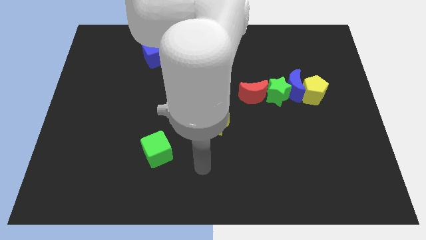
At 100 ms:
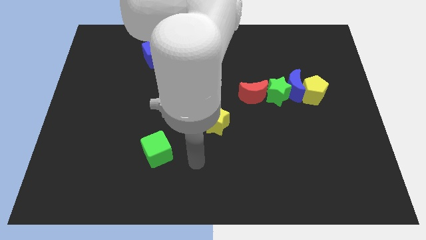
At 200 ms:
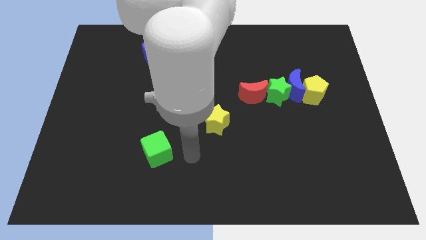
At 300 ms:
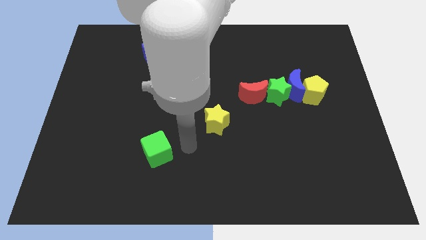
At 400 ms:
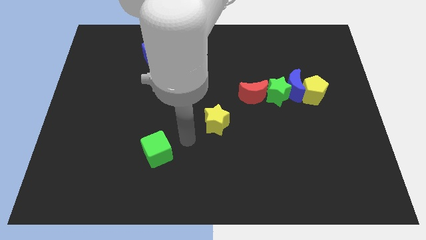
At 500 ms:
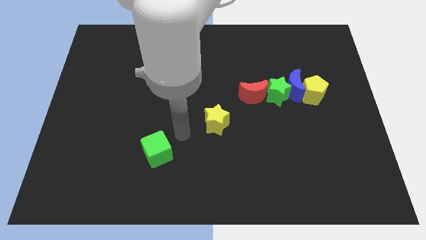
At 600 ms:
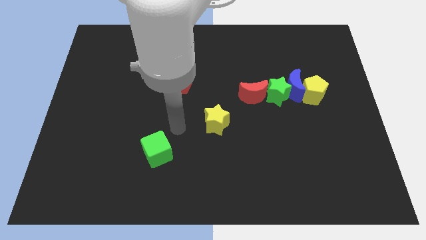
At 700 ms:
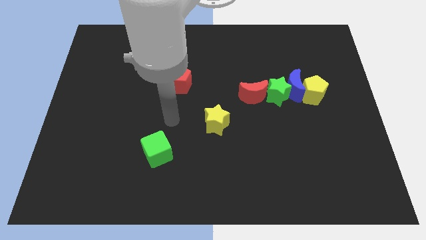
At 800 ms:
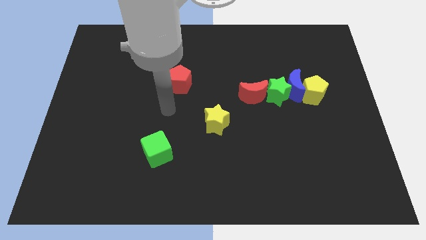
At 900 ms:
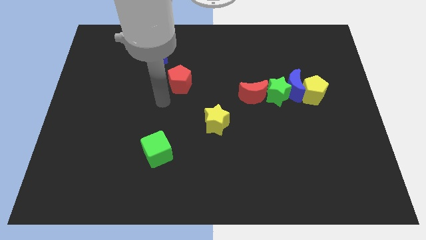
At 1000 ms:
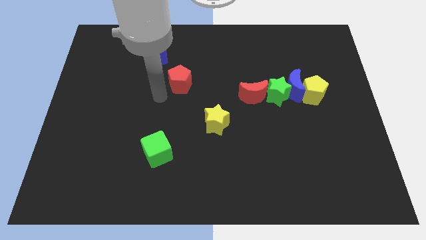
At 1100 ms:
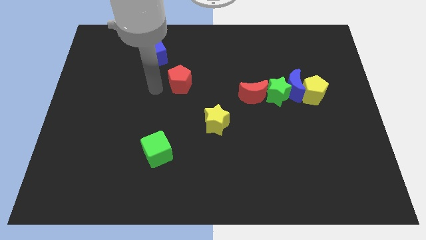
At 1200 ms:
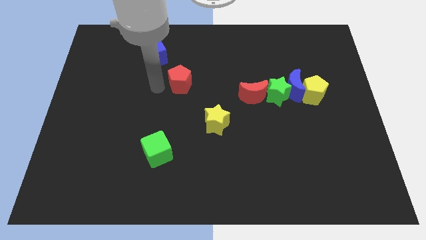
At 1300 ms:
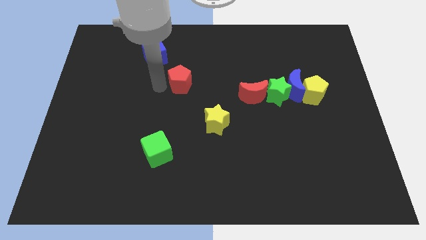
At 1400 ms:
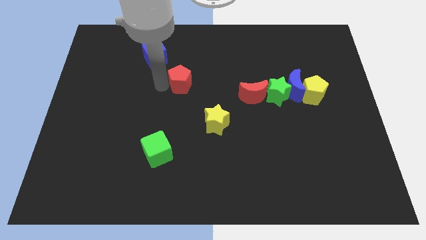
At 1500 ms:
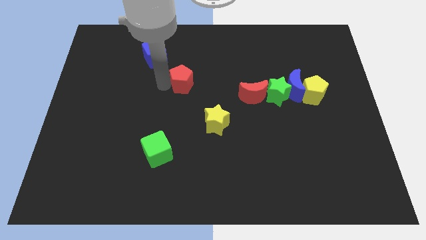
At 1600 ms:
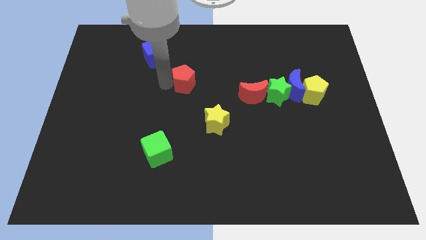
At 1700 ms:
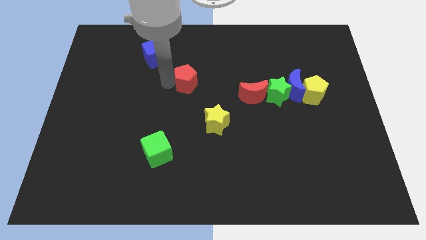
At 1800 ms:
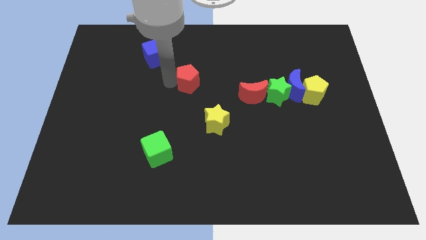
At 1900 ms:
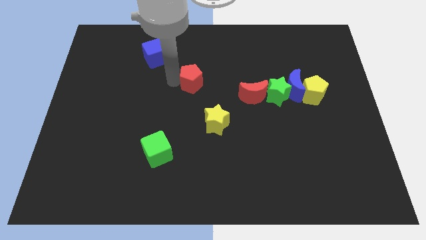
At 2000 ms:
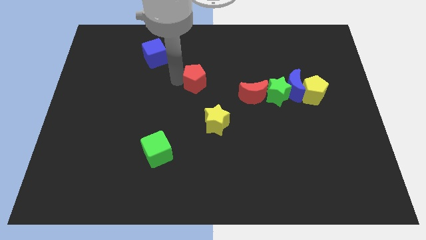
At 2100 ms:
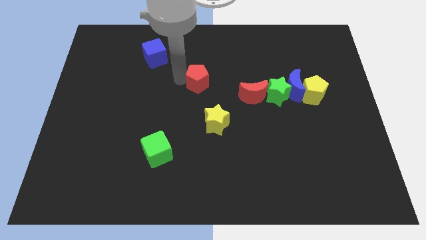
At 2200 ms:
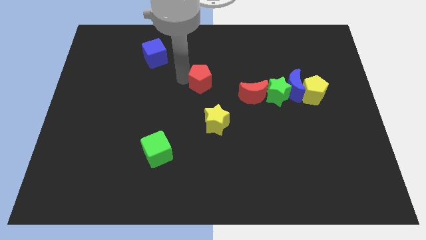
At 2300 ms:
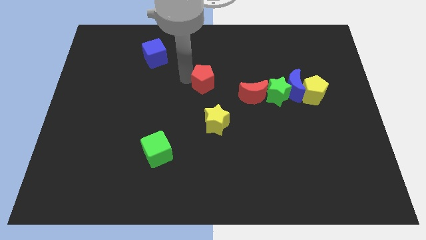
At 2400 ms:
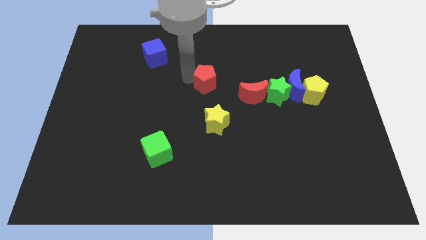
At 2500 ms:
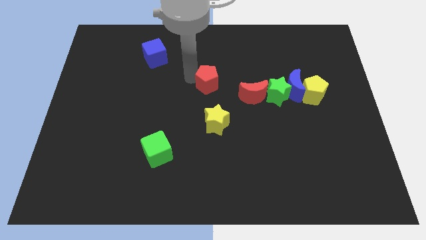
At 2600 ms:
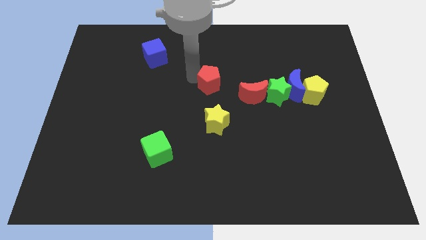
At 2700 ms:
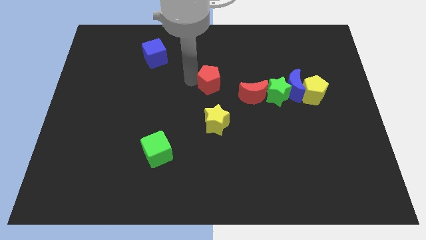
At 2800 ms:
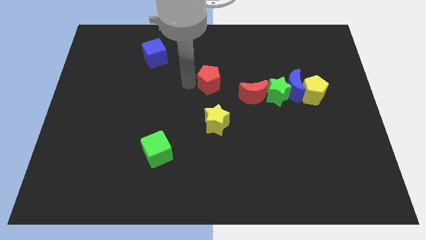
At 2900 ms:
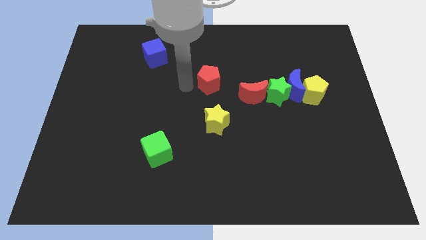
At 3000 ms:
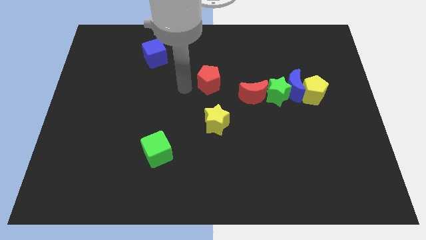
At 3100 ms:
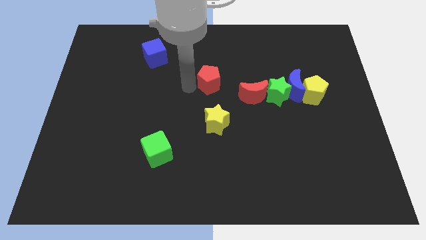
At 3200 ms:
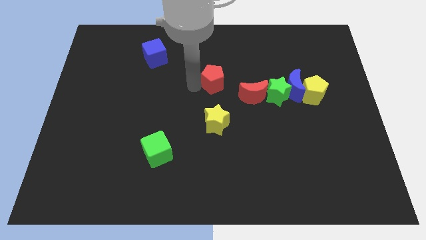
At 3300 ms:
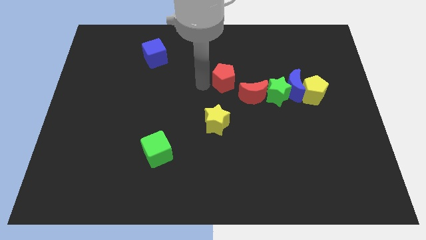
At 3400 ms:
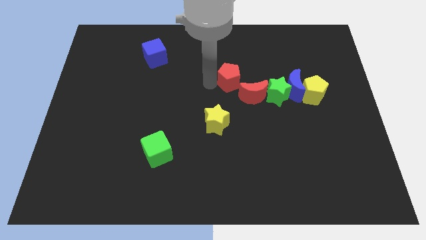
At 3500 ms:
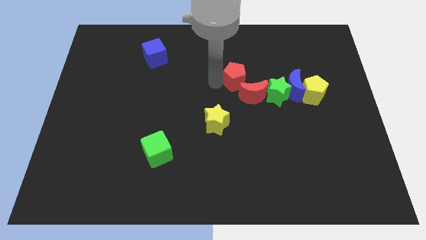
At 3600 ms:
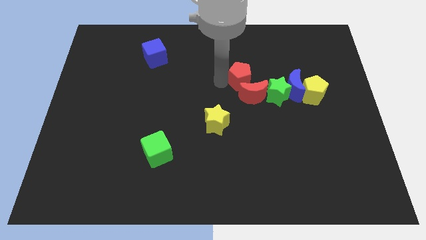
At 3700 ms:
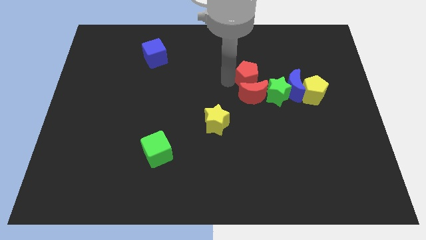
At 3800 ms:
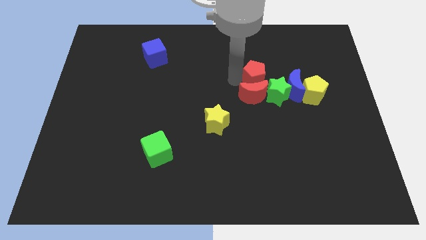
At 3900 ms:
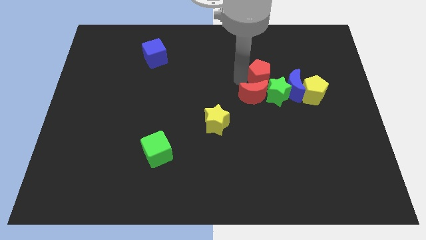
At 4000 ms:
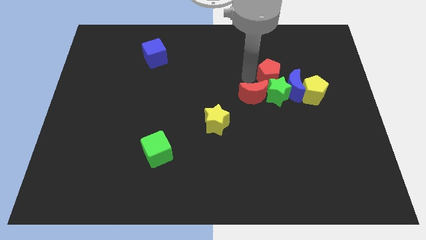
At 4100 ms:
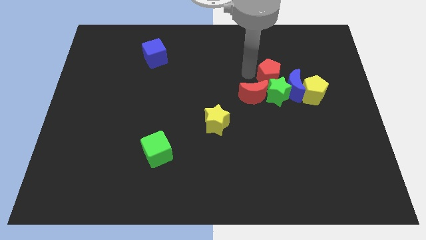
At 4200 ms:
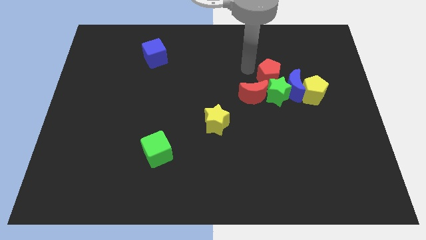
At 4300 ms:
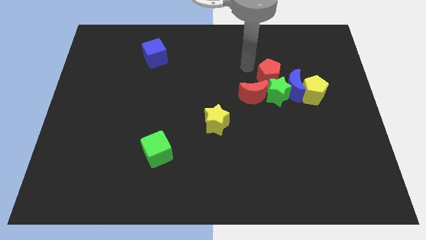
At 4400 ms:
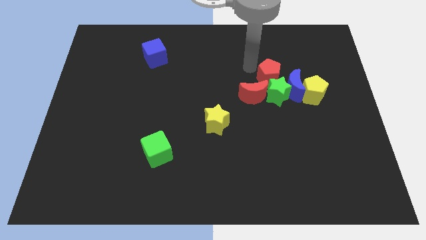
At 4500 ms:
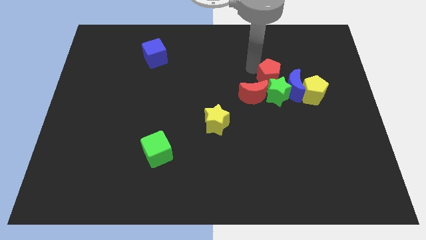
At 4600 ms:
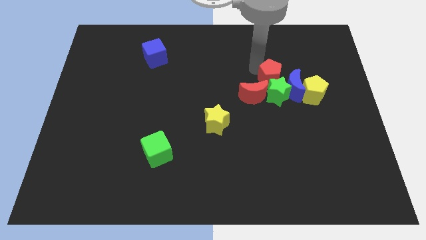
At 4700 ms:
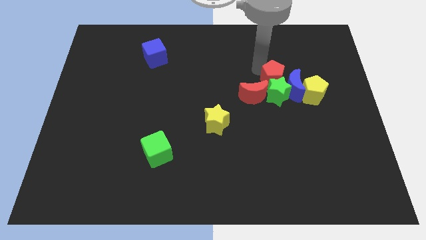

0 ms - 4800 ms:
push the red pentagon next to the blue moon

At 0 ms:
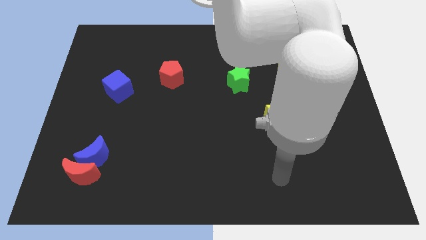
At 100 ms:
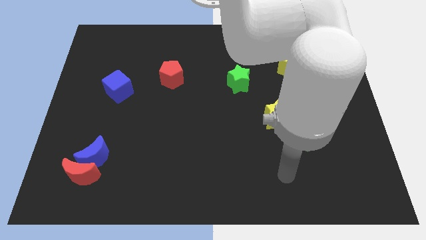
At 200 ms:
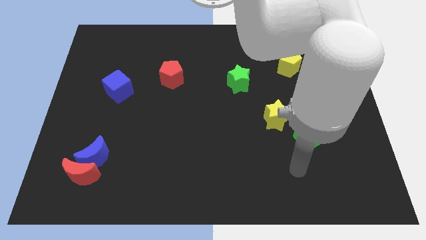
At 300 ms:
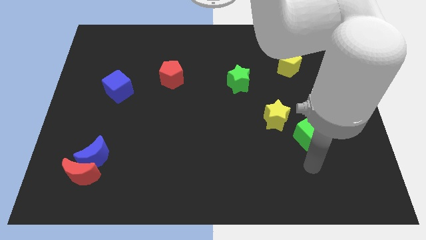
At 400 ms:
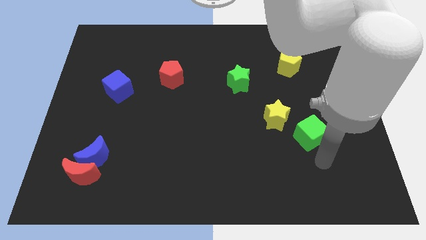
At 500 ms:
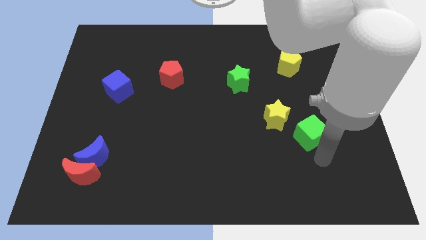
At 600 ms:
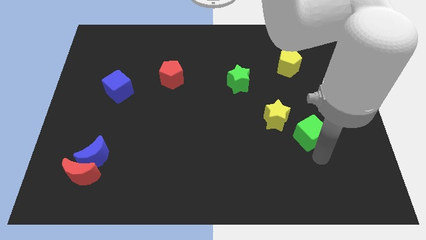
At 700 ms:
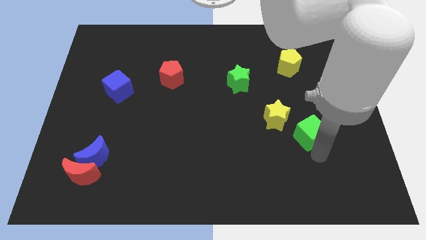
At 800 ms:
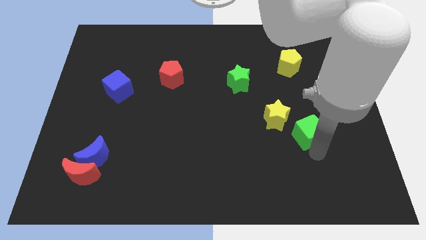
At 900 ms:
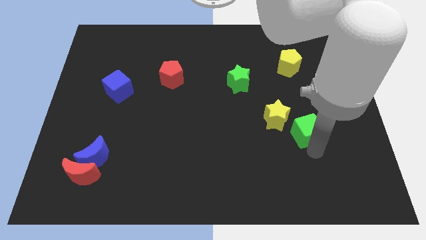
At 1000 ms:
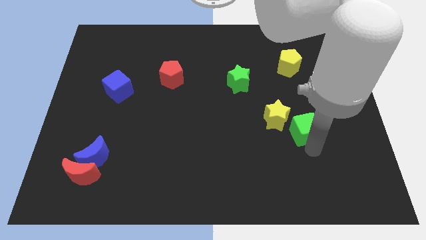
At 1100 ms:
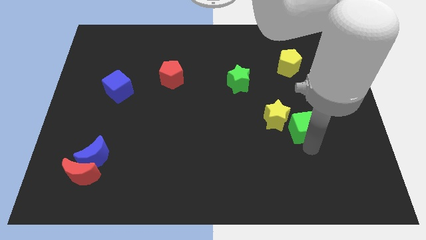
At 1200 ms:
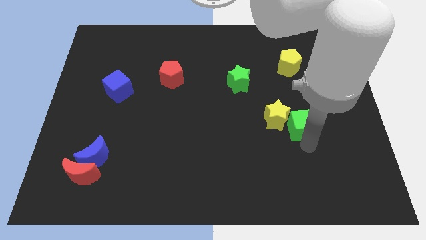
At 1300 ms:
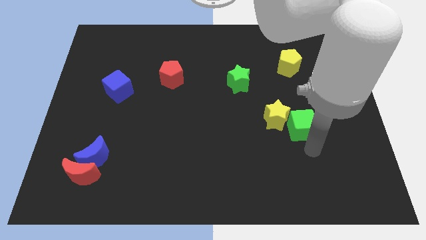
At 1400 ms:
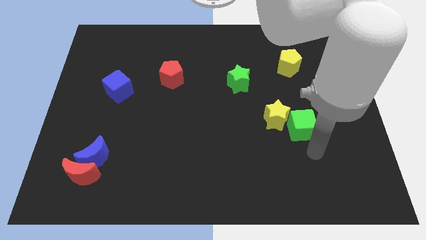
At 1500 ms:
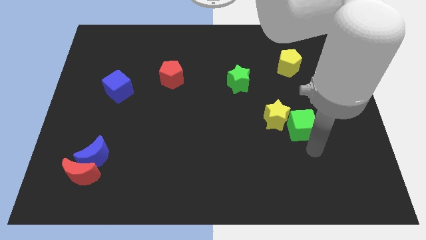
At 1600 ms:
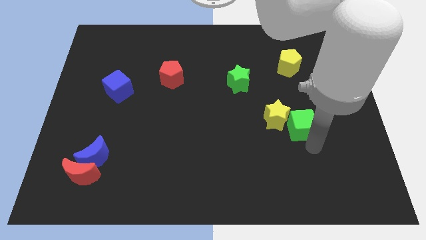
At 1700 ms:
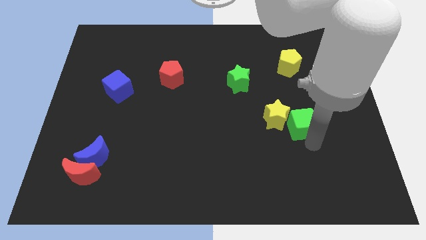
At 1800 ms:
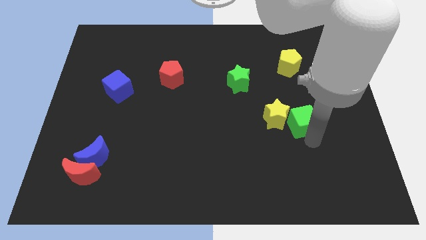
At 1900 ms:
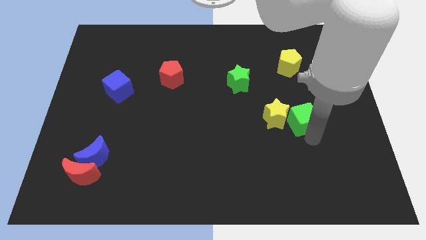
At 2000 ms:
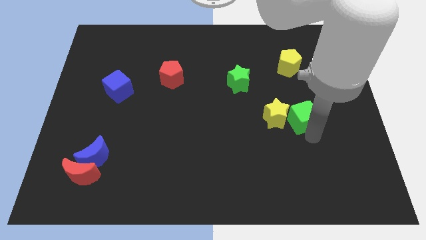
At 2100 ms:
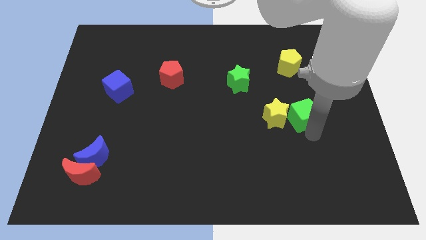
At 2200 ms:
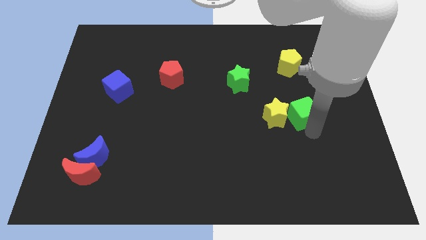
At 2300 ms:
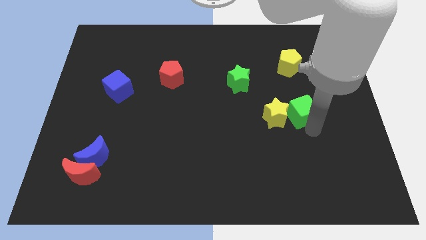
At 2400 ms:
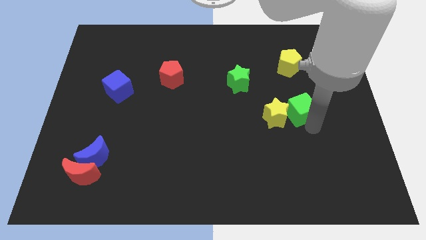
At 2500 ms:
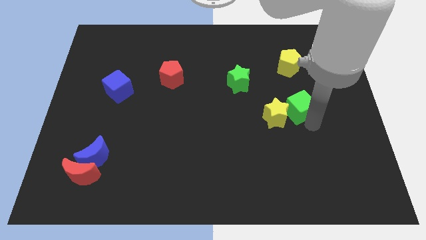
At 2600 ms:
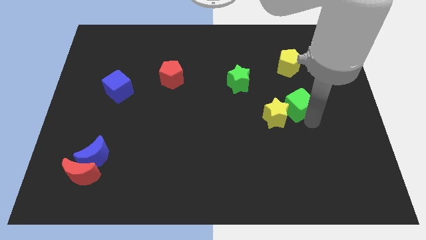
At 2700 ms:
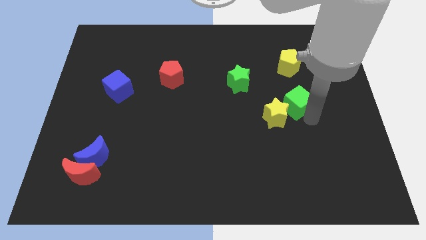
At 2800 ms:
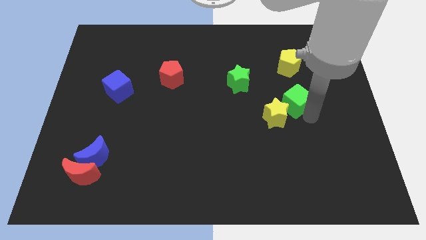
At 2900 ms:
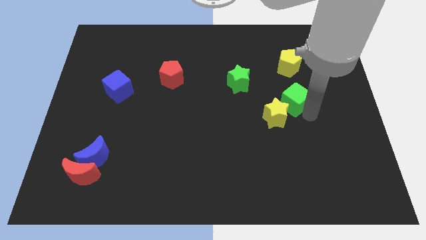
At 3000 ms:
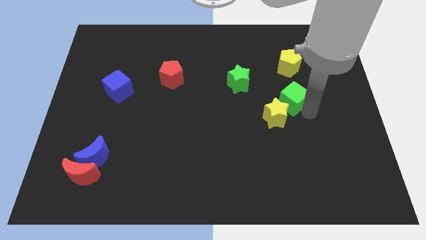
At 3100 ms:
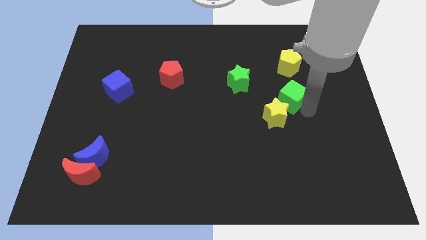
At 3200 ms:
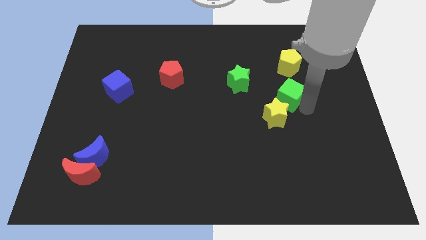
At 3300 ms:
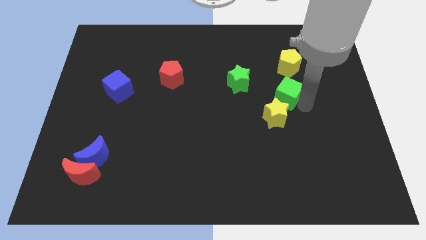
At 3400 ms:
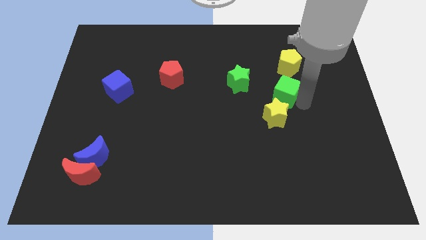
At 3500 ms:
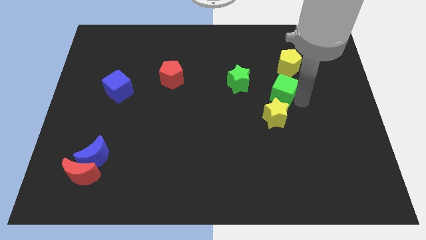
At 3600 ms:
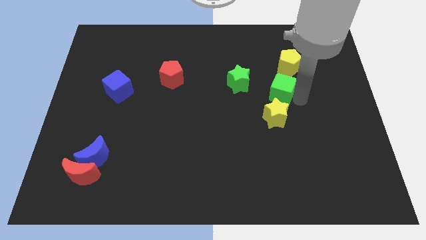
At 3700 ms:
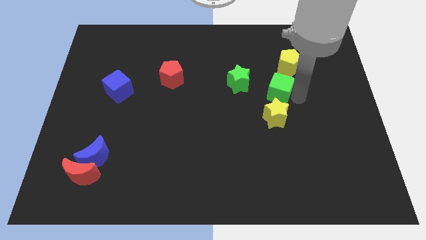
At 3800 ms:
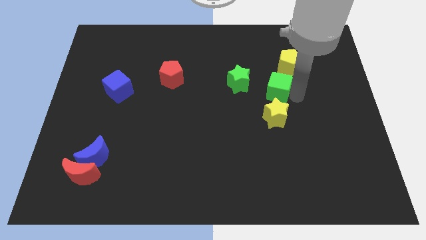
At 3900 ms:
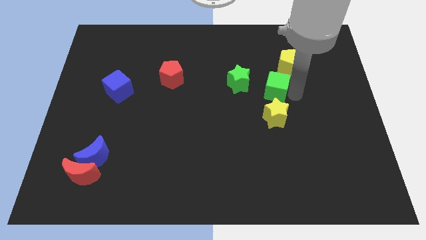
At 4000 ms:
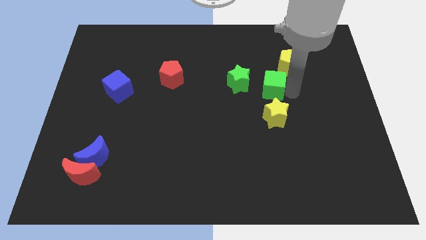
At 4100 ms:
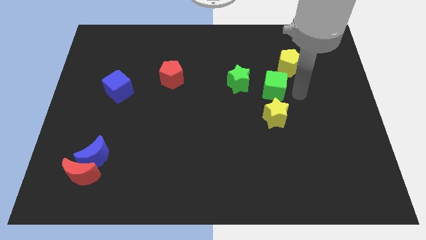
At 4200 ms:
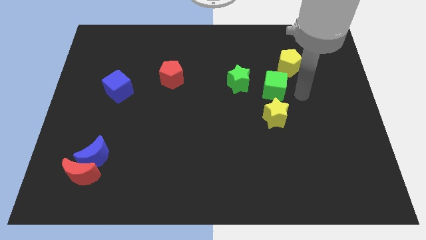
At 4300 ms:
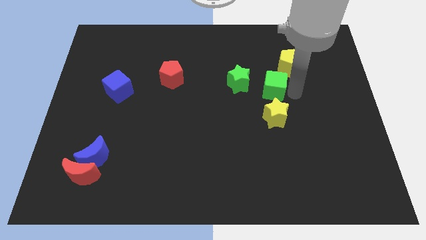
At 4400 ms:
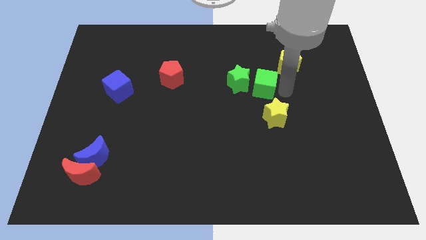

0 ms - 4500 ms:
push the green cube towards the green star
